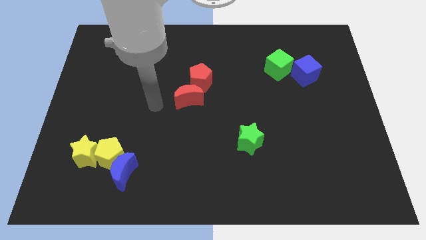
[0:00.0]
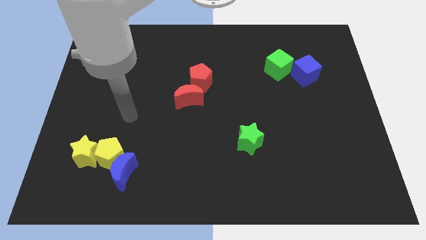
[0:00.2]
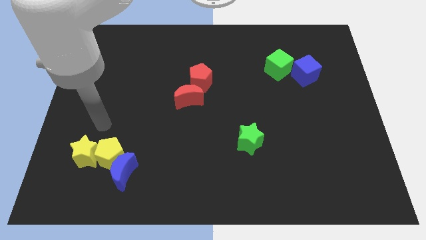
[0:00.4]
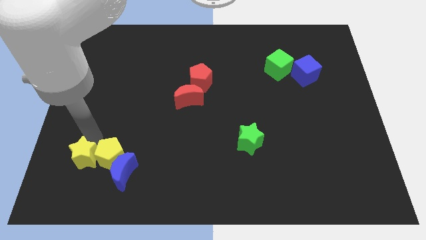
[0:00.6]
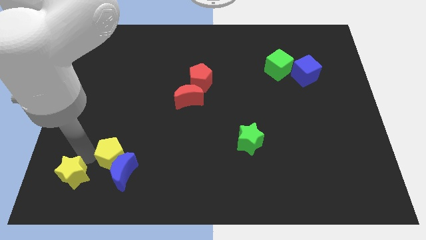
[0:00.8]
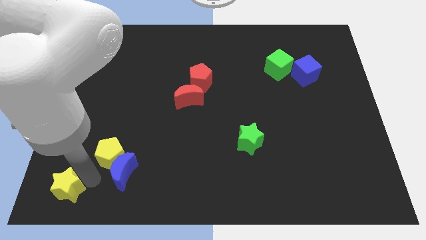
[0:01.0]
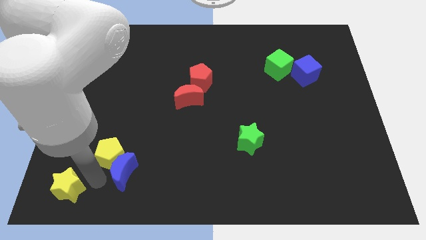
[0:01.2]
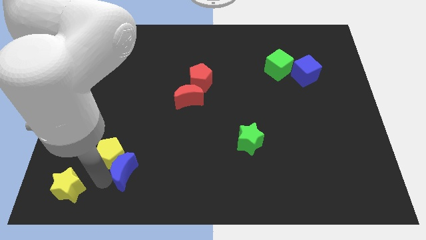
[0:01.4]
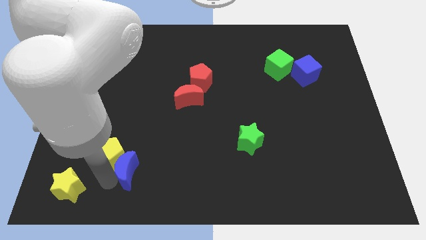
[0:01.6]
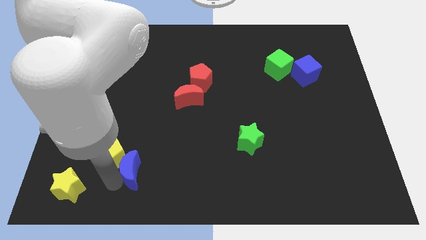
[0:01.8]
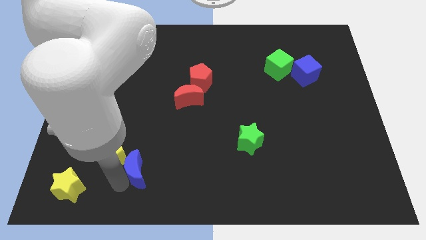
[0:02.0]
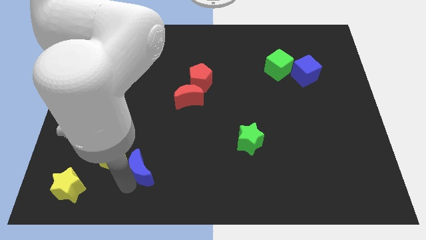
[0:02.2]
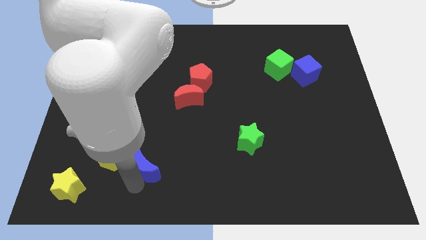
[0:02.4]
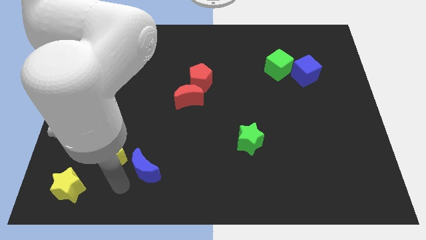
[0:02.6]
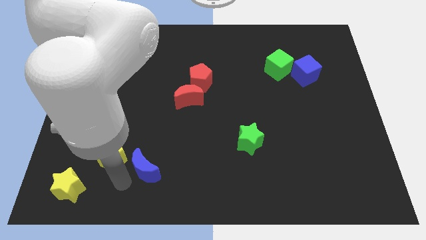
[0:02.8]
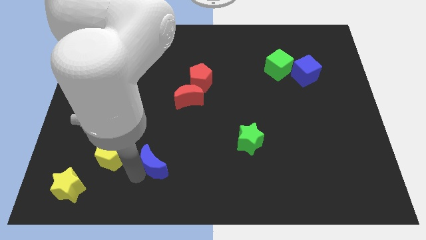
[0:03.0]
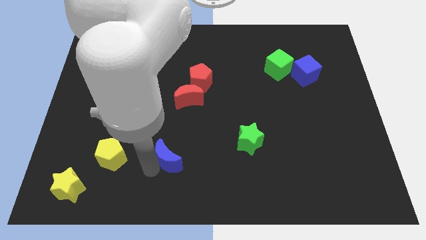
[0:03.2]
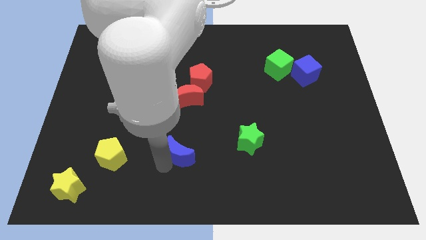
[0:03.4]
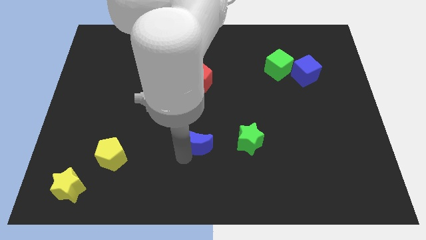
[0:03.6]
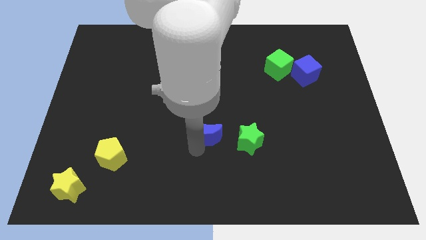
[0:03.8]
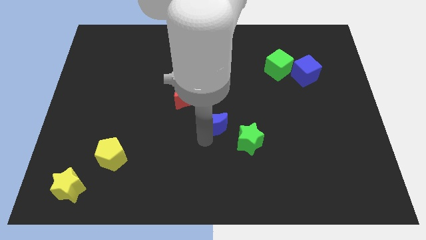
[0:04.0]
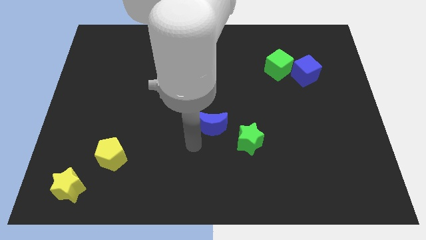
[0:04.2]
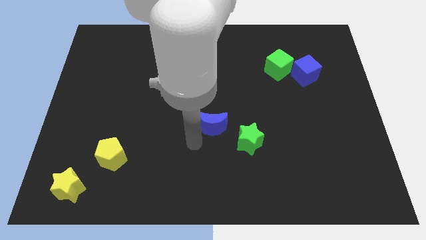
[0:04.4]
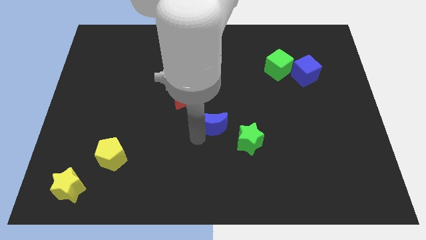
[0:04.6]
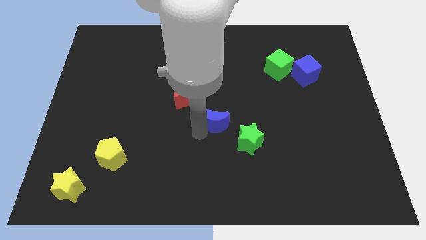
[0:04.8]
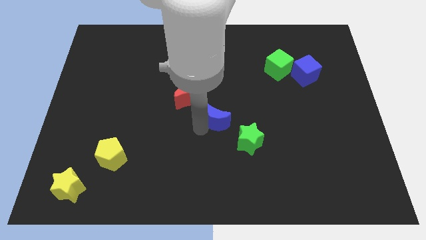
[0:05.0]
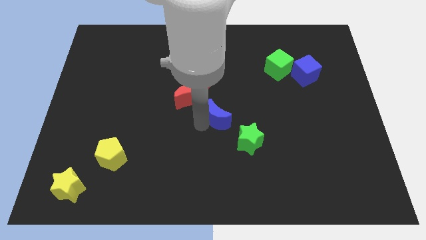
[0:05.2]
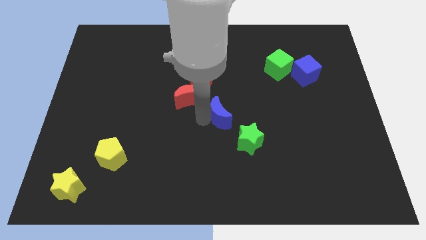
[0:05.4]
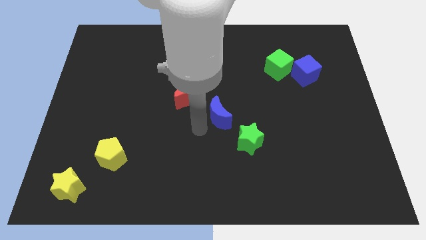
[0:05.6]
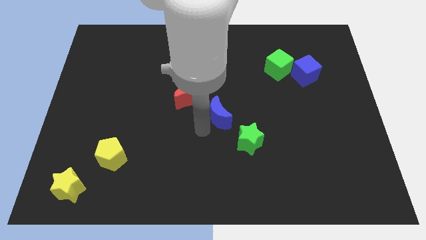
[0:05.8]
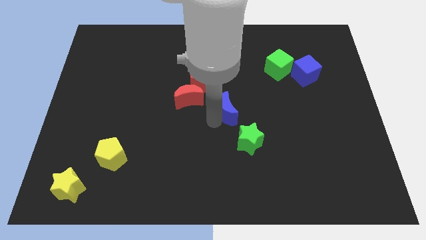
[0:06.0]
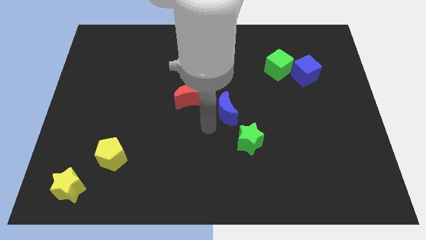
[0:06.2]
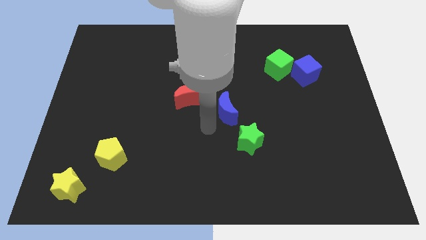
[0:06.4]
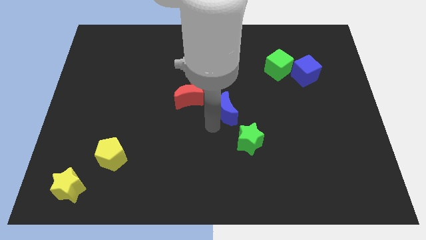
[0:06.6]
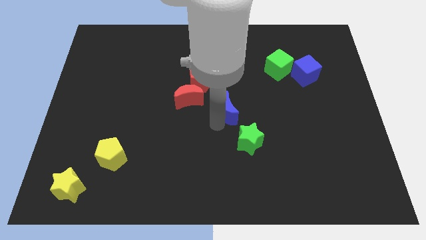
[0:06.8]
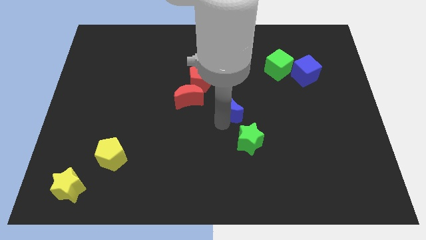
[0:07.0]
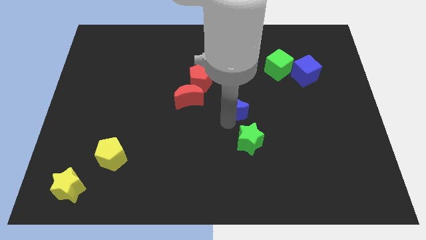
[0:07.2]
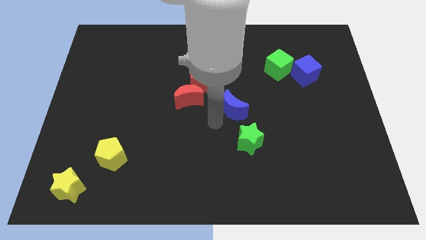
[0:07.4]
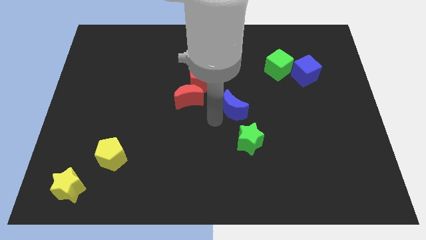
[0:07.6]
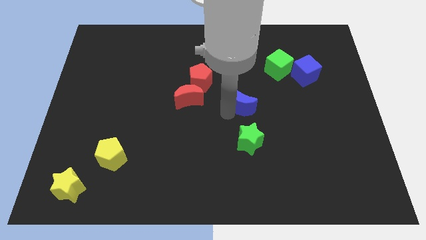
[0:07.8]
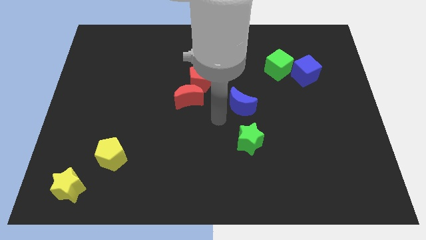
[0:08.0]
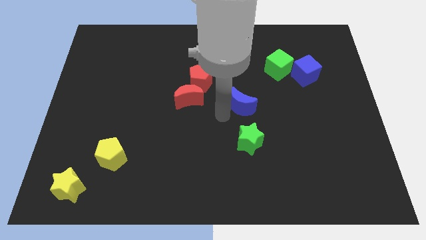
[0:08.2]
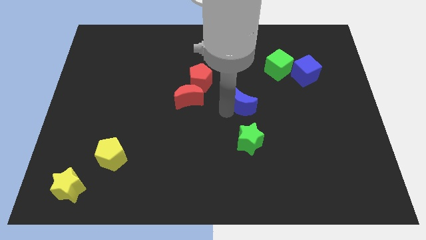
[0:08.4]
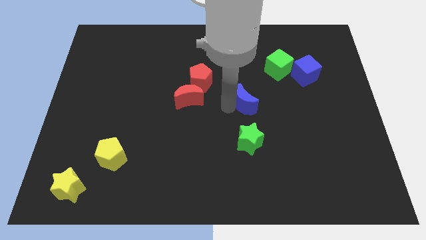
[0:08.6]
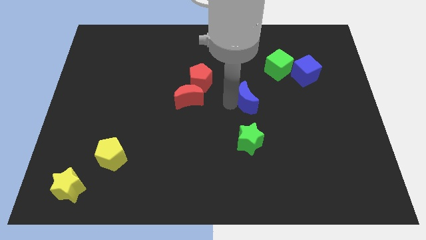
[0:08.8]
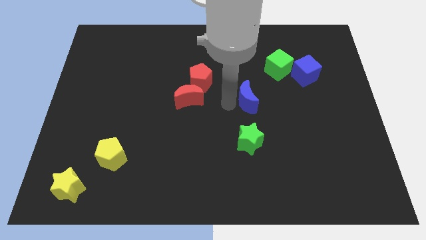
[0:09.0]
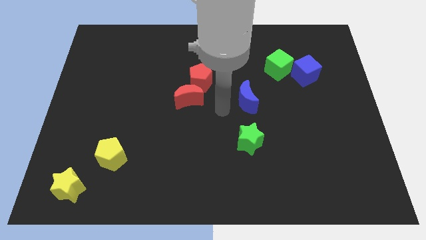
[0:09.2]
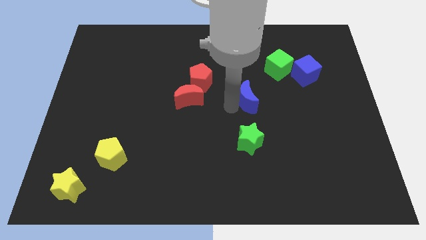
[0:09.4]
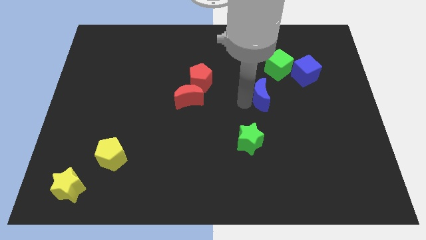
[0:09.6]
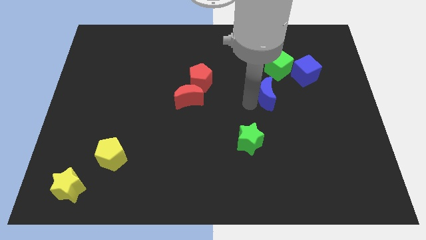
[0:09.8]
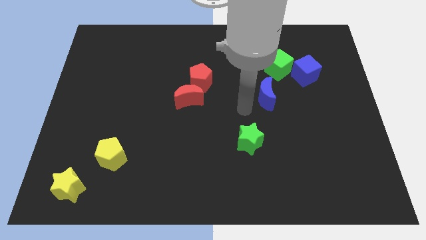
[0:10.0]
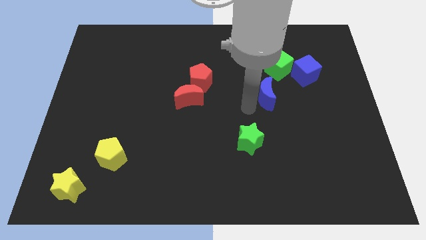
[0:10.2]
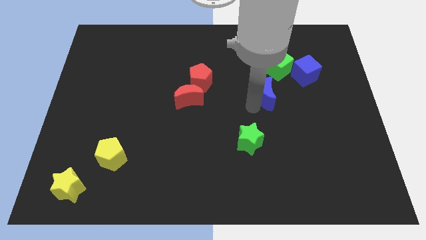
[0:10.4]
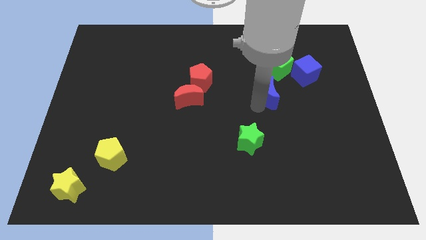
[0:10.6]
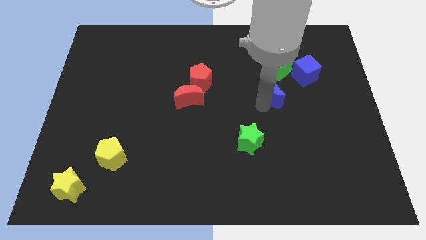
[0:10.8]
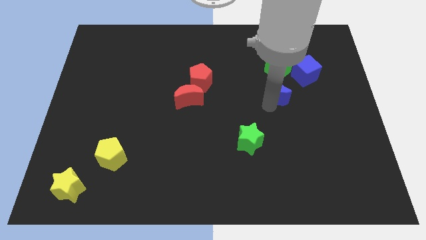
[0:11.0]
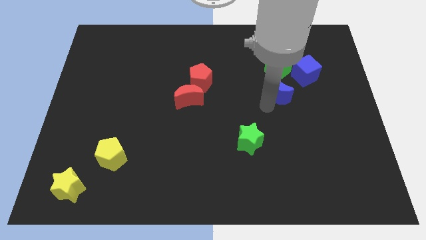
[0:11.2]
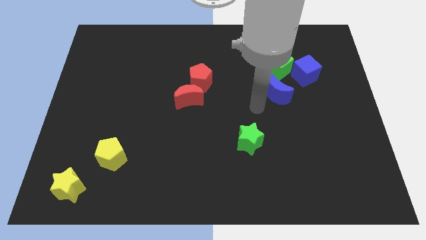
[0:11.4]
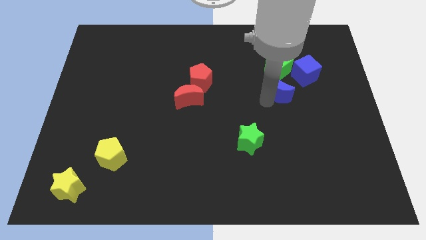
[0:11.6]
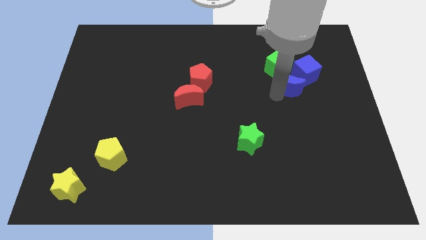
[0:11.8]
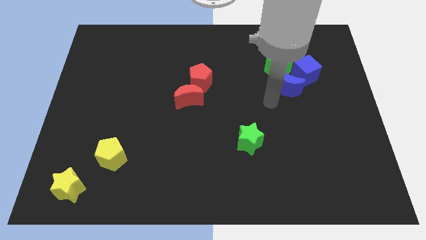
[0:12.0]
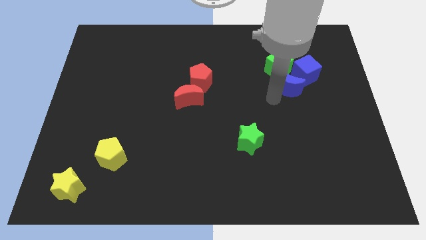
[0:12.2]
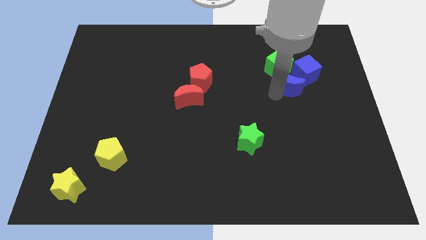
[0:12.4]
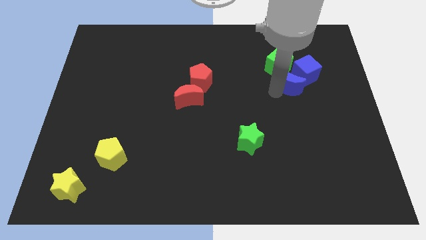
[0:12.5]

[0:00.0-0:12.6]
put the blue moon next to the blue cube

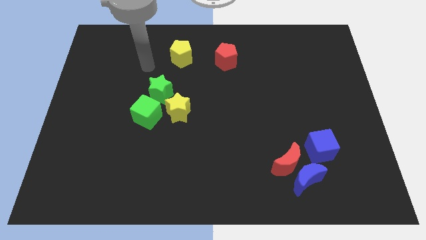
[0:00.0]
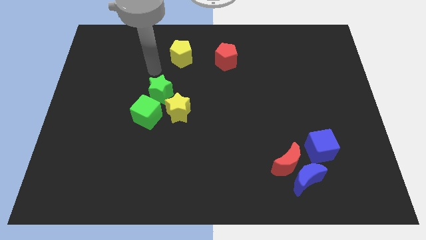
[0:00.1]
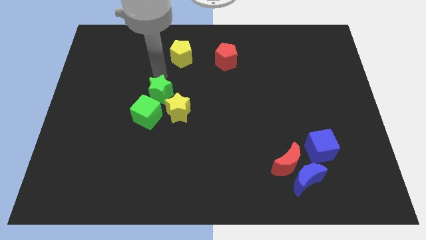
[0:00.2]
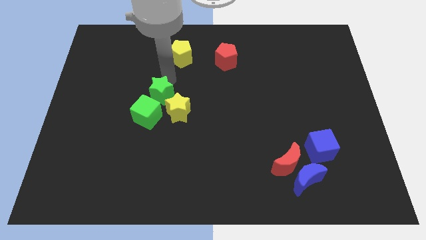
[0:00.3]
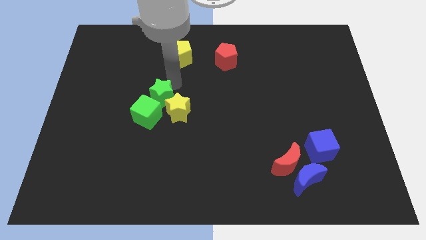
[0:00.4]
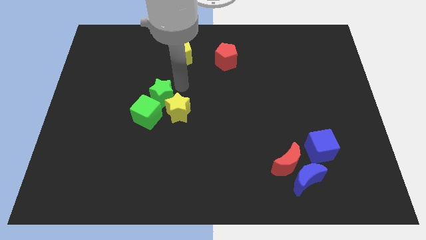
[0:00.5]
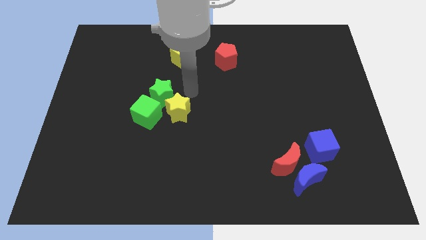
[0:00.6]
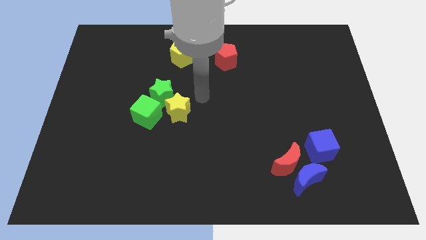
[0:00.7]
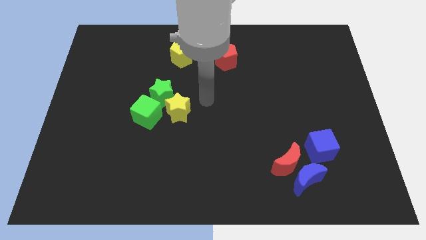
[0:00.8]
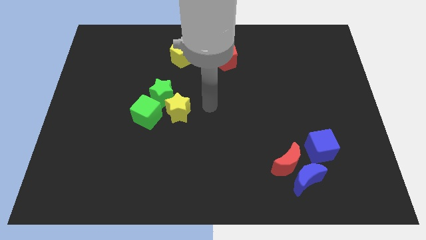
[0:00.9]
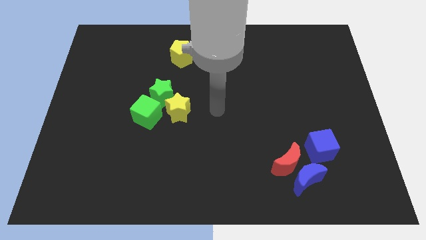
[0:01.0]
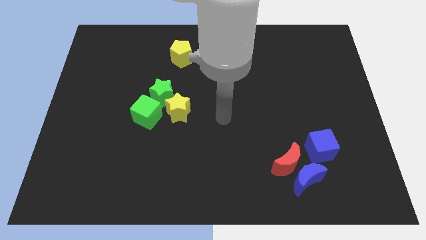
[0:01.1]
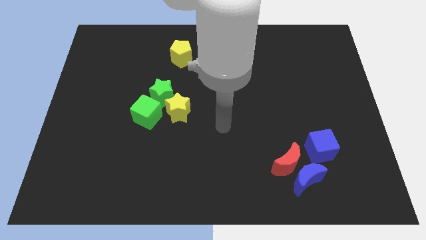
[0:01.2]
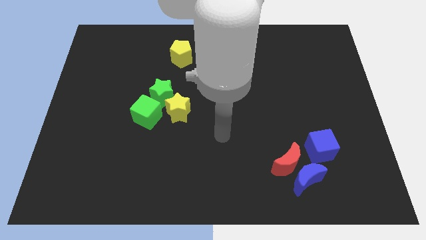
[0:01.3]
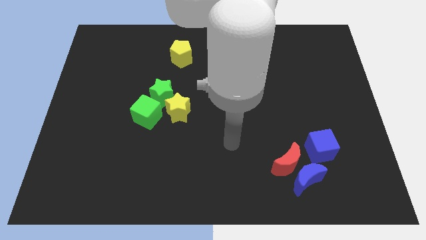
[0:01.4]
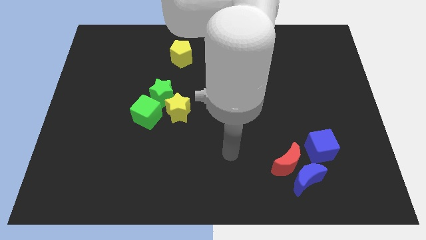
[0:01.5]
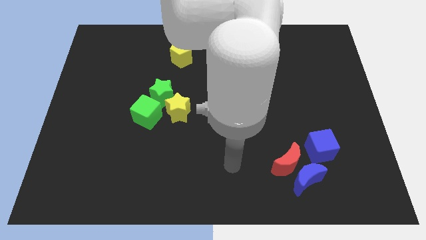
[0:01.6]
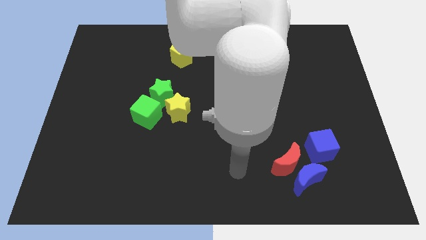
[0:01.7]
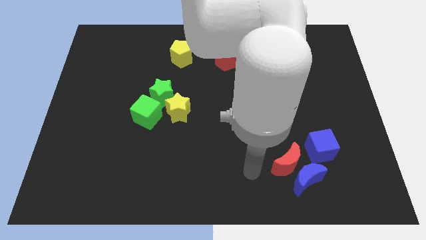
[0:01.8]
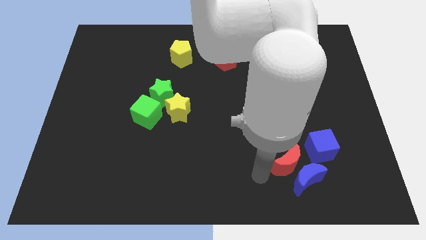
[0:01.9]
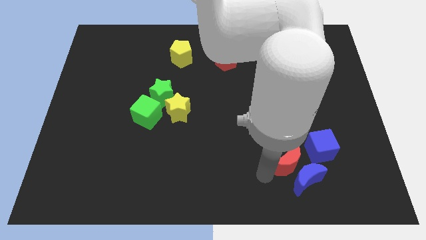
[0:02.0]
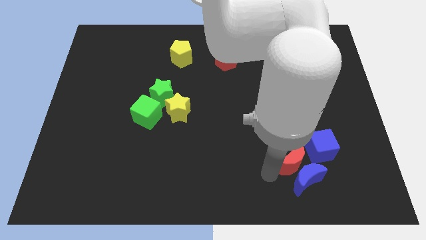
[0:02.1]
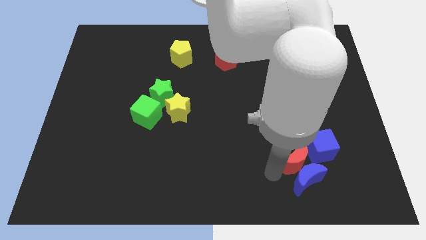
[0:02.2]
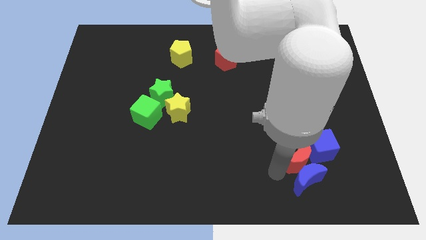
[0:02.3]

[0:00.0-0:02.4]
move the red moon next to the blue cube
